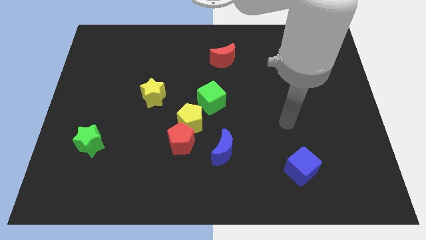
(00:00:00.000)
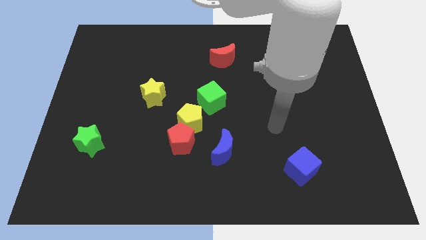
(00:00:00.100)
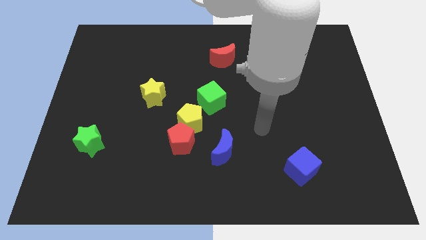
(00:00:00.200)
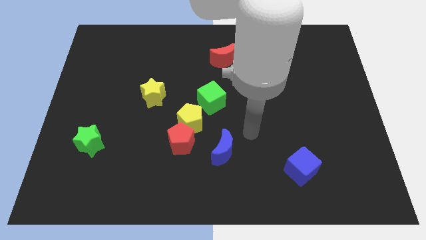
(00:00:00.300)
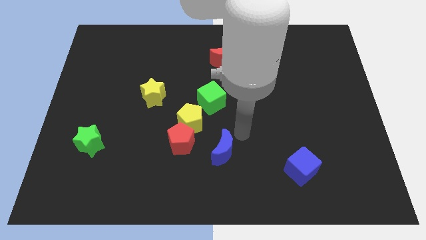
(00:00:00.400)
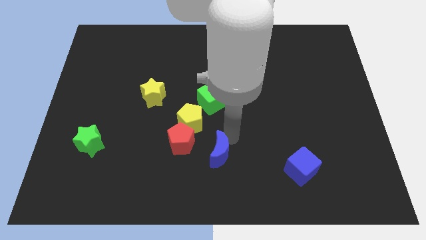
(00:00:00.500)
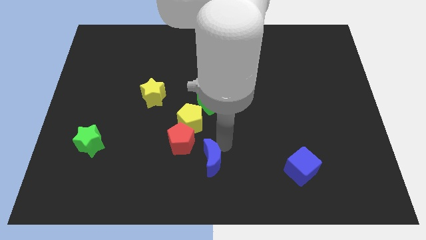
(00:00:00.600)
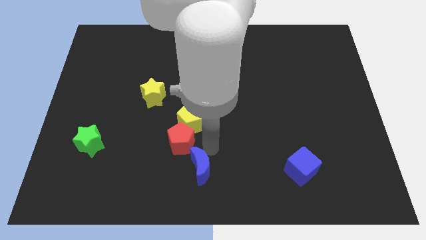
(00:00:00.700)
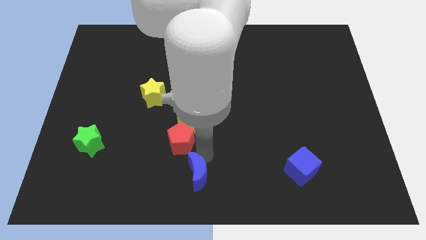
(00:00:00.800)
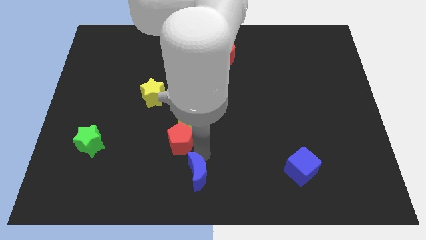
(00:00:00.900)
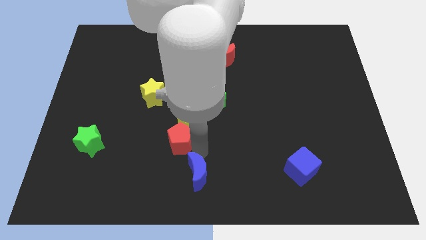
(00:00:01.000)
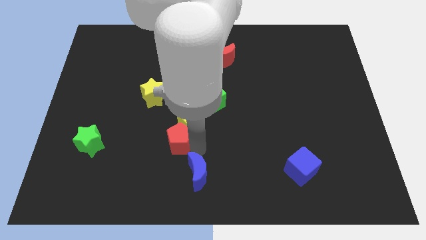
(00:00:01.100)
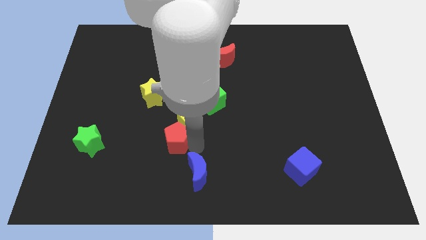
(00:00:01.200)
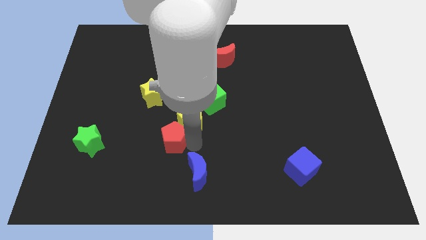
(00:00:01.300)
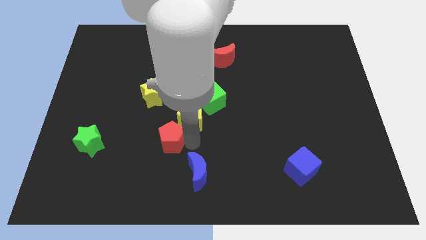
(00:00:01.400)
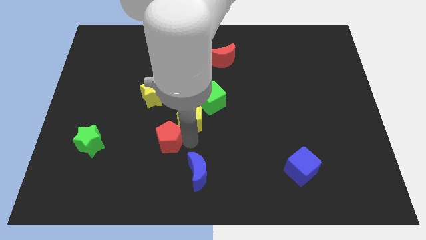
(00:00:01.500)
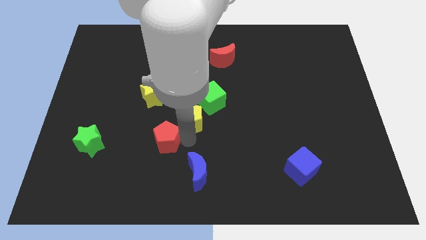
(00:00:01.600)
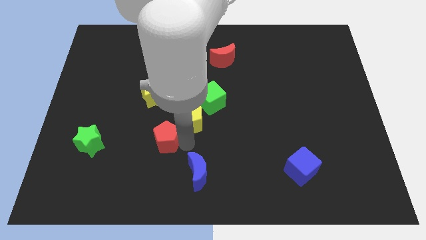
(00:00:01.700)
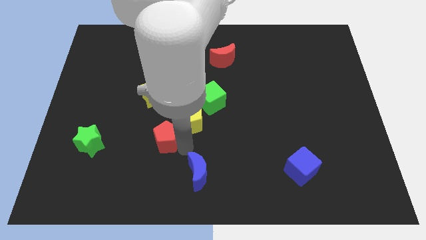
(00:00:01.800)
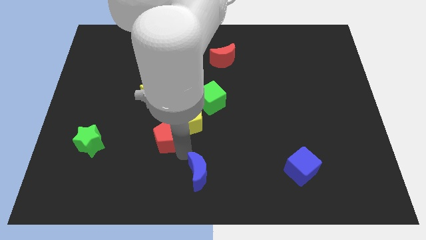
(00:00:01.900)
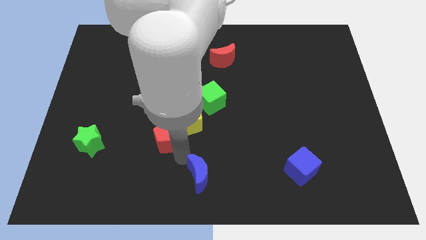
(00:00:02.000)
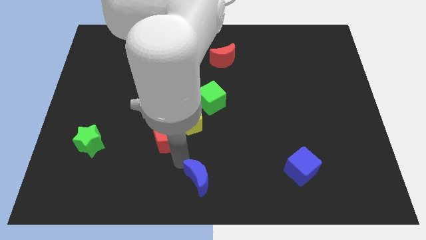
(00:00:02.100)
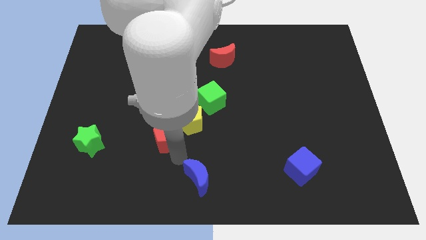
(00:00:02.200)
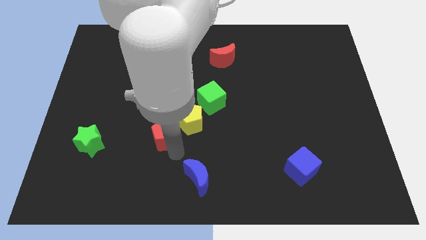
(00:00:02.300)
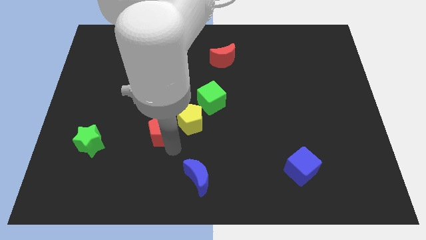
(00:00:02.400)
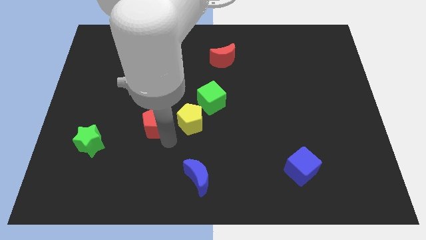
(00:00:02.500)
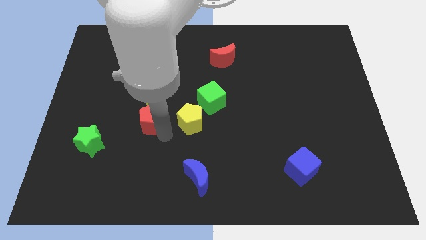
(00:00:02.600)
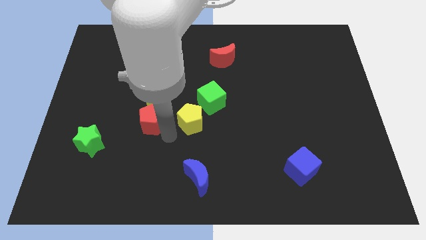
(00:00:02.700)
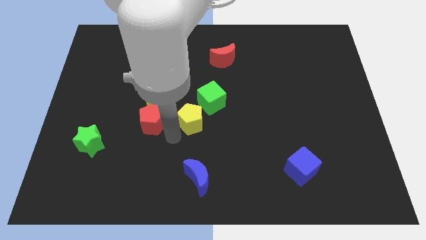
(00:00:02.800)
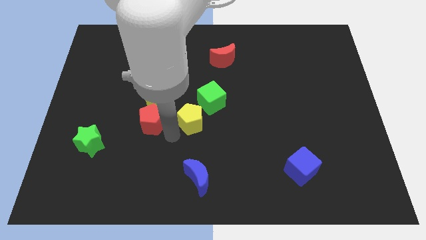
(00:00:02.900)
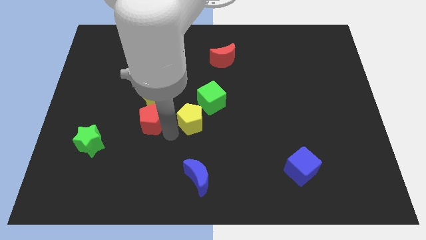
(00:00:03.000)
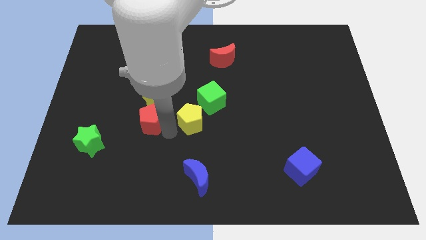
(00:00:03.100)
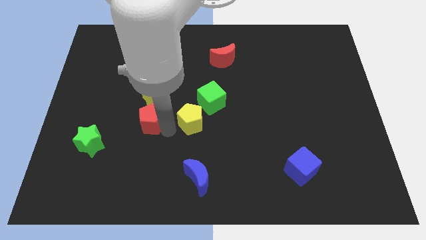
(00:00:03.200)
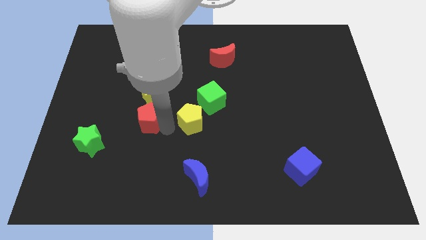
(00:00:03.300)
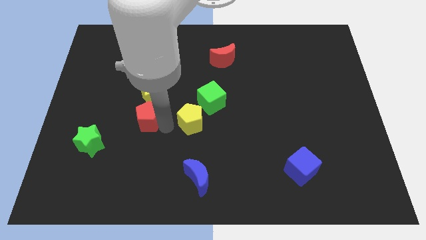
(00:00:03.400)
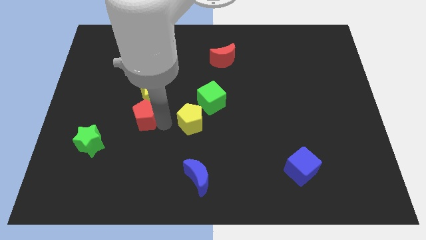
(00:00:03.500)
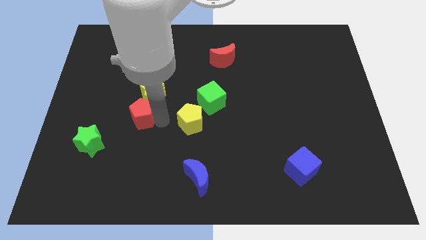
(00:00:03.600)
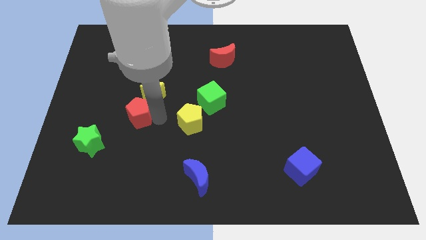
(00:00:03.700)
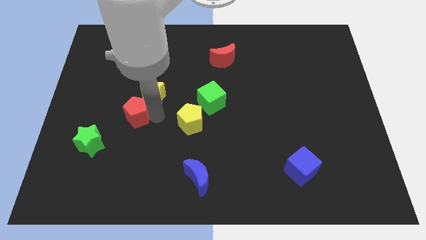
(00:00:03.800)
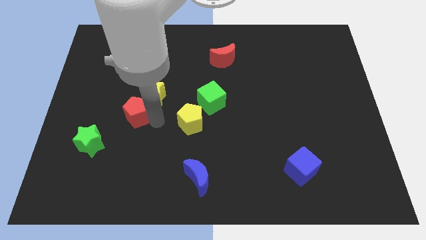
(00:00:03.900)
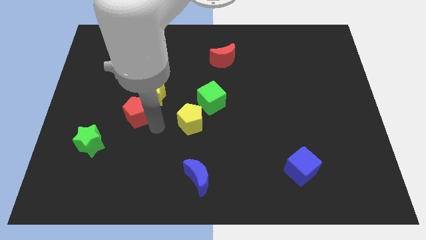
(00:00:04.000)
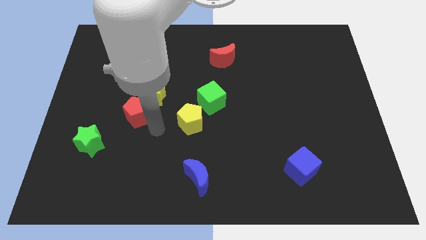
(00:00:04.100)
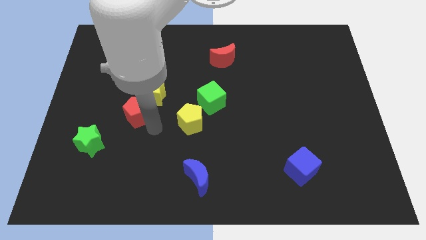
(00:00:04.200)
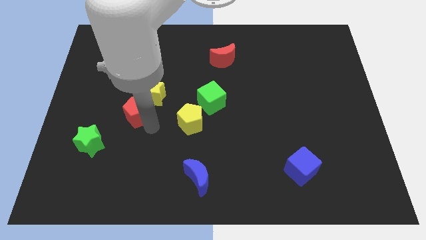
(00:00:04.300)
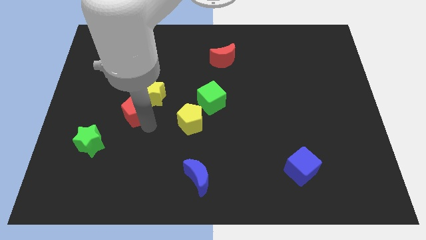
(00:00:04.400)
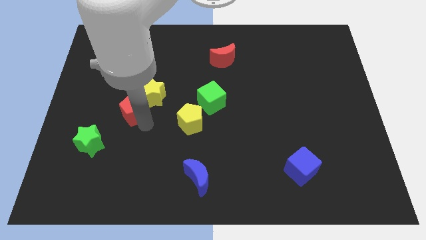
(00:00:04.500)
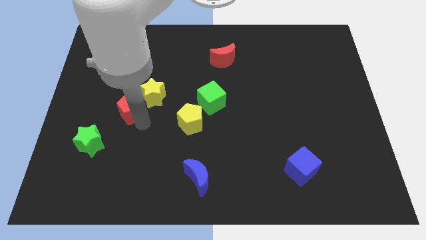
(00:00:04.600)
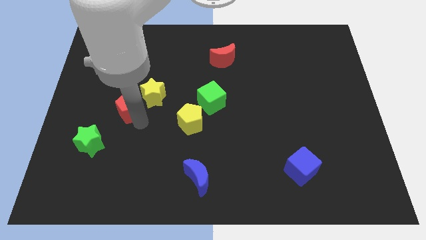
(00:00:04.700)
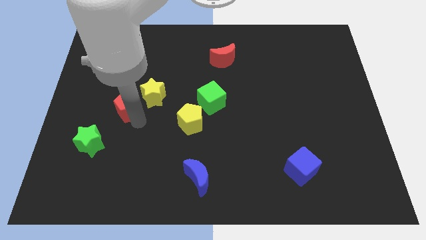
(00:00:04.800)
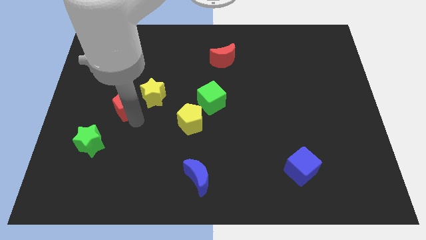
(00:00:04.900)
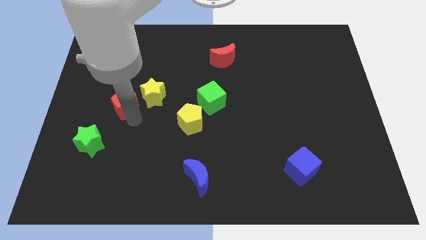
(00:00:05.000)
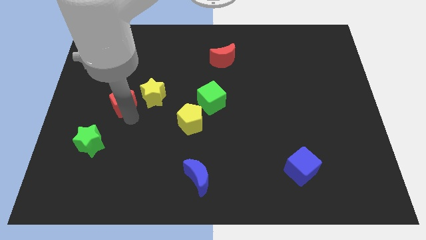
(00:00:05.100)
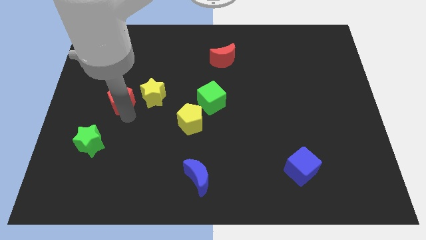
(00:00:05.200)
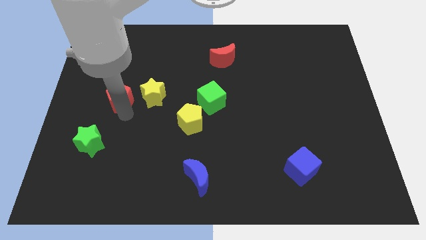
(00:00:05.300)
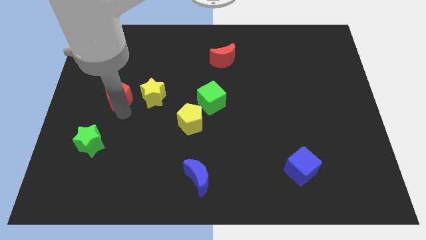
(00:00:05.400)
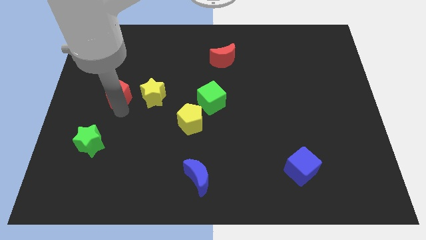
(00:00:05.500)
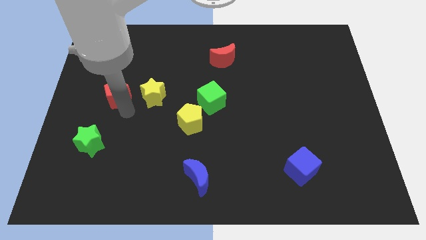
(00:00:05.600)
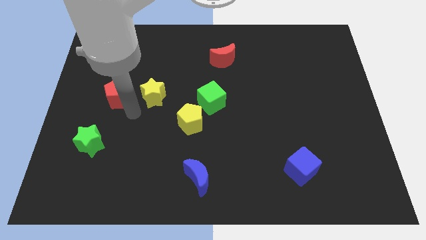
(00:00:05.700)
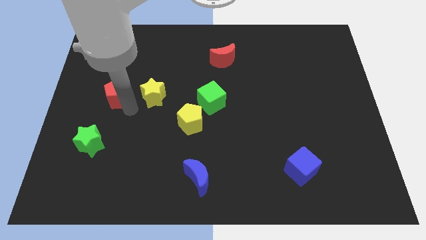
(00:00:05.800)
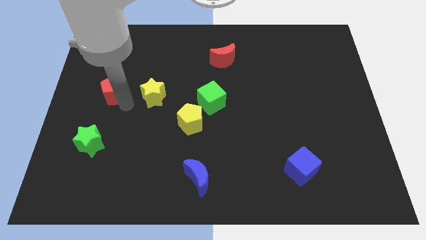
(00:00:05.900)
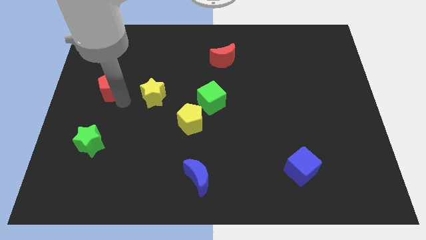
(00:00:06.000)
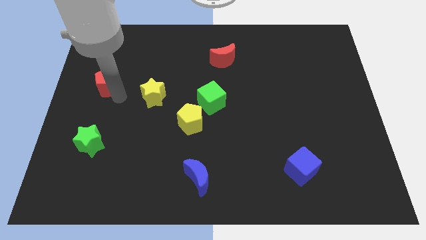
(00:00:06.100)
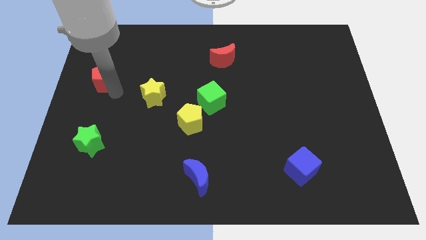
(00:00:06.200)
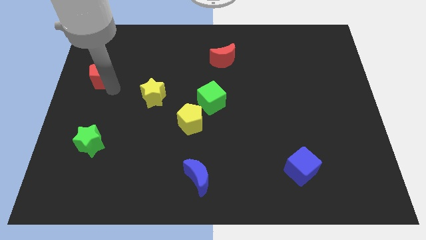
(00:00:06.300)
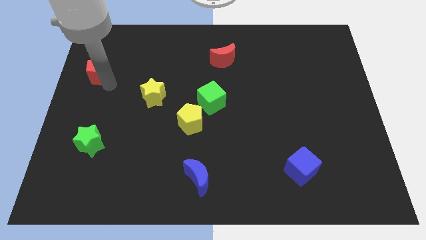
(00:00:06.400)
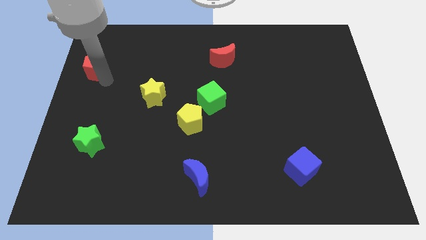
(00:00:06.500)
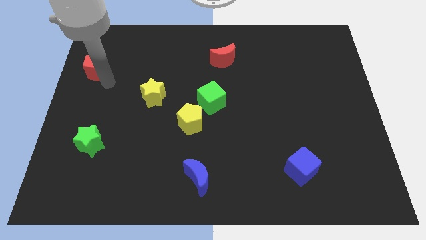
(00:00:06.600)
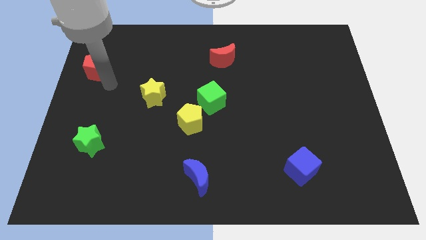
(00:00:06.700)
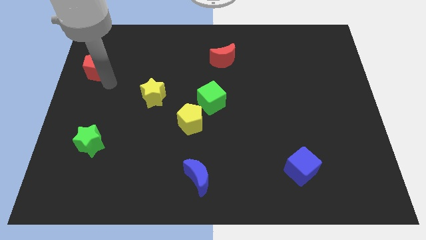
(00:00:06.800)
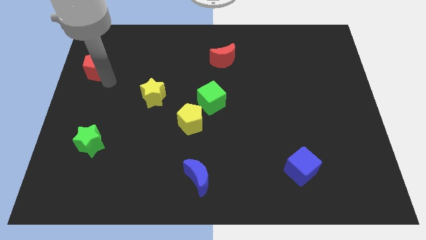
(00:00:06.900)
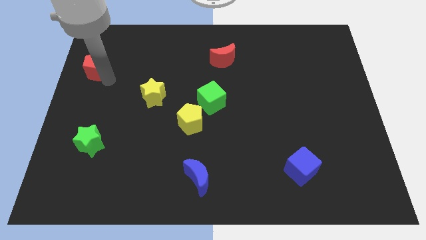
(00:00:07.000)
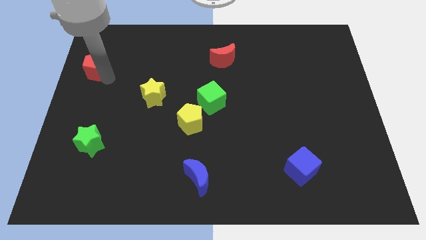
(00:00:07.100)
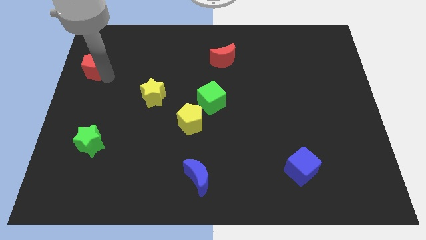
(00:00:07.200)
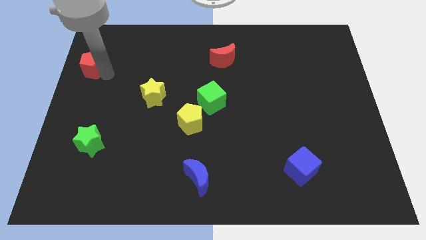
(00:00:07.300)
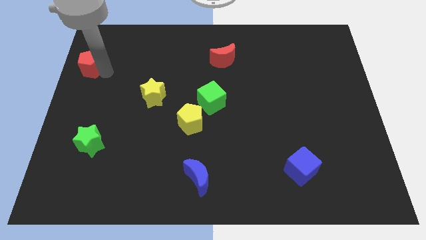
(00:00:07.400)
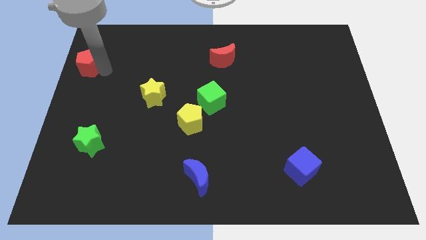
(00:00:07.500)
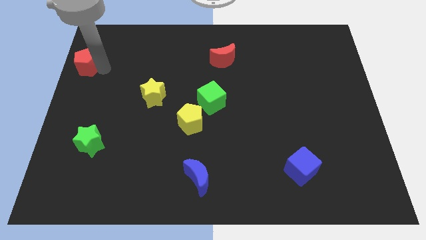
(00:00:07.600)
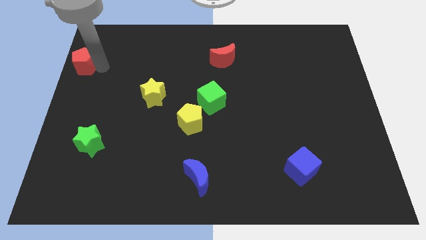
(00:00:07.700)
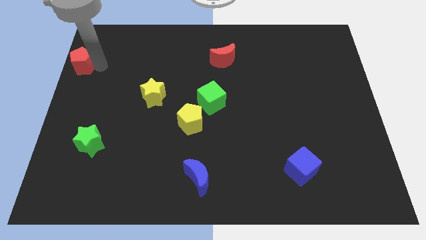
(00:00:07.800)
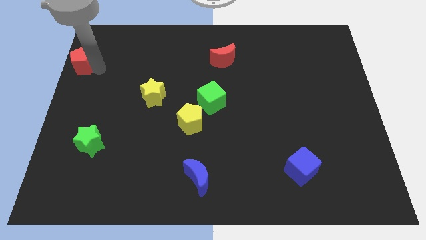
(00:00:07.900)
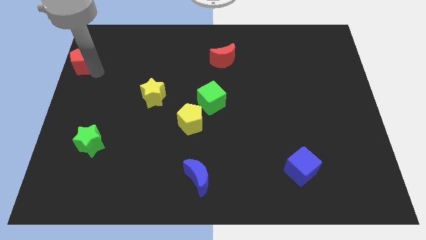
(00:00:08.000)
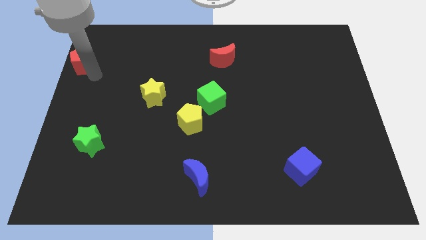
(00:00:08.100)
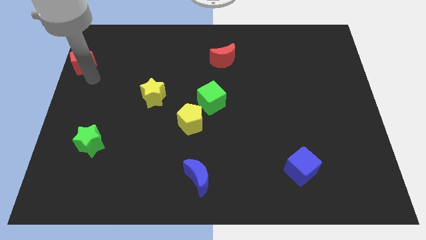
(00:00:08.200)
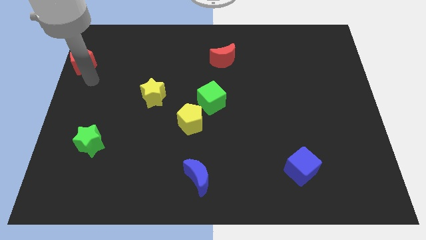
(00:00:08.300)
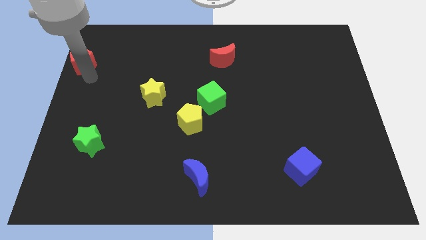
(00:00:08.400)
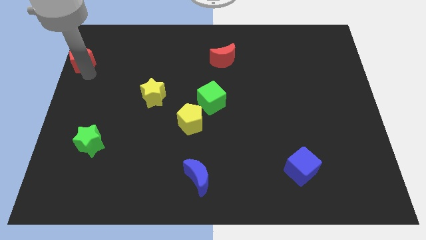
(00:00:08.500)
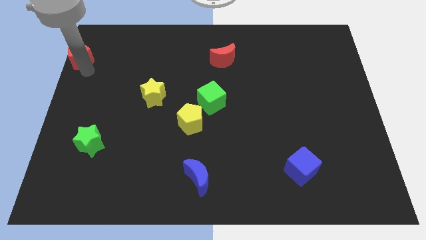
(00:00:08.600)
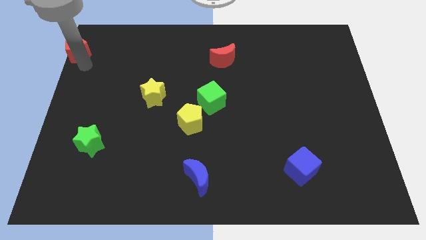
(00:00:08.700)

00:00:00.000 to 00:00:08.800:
move the red pentagon to the upper left corner
